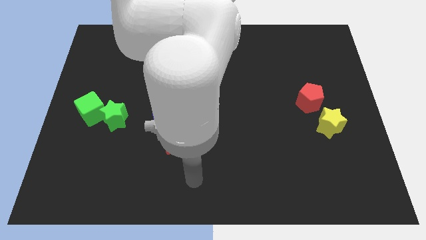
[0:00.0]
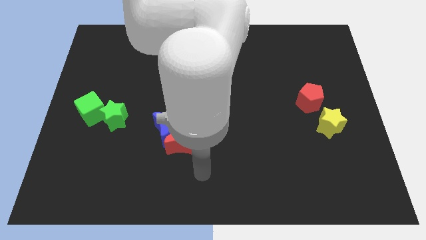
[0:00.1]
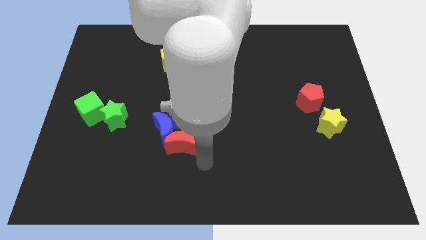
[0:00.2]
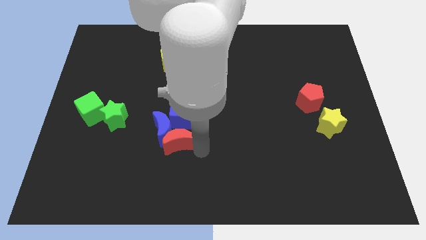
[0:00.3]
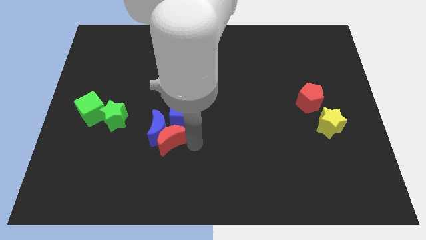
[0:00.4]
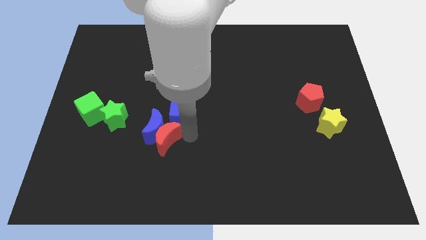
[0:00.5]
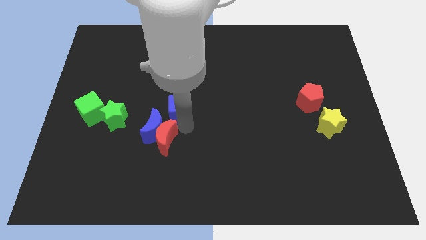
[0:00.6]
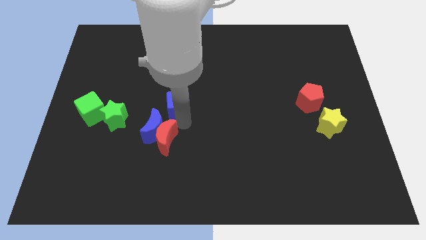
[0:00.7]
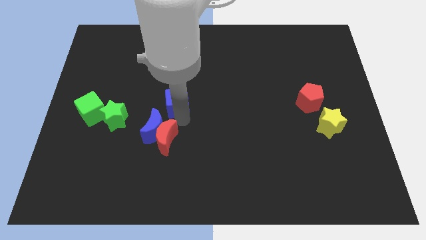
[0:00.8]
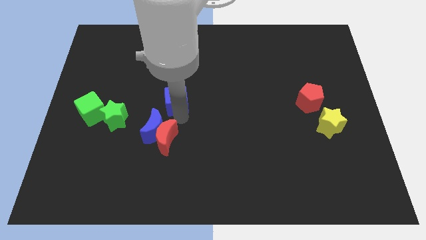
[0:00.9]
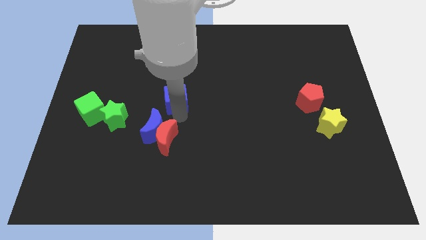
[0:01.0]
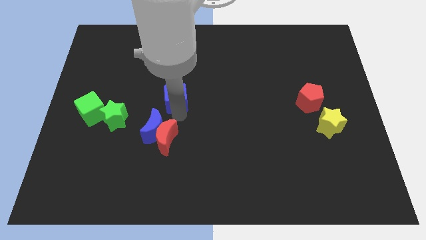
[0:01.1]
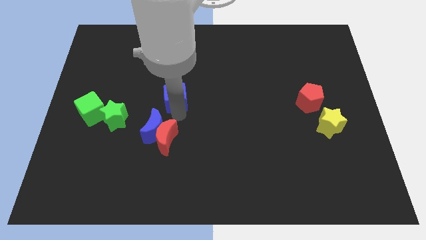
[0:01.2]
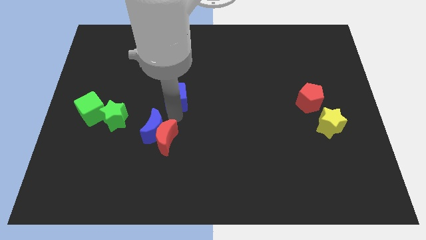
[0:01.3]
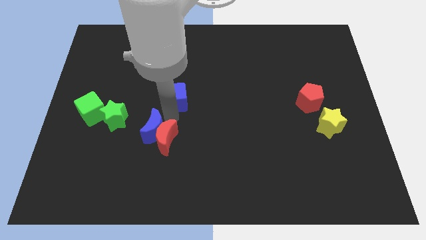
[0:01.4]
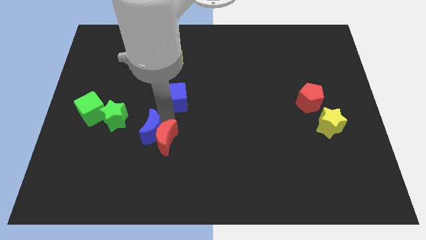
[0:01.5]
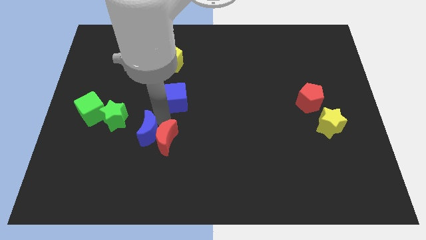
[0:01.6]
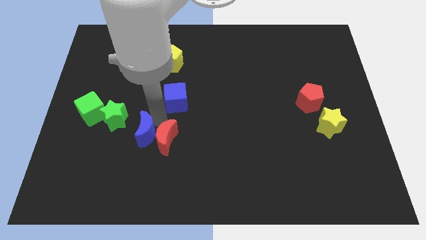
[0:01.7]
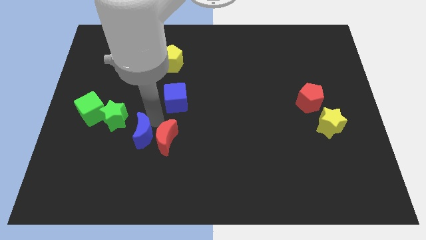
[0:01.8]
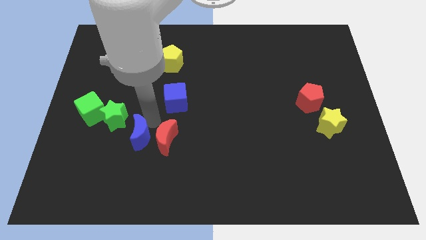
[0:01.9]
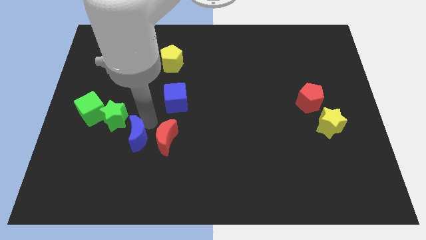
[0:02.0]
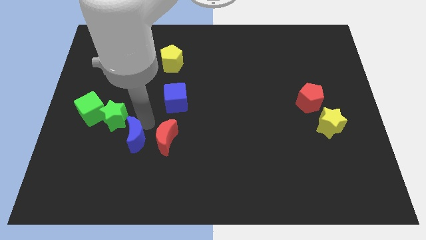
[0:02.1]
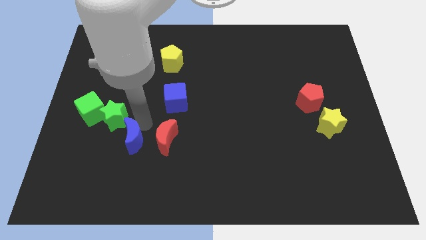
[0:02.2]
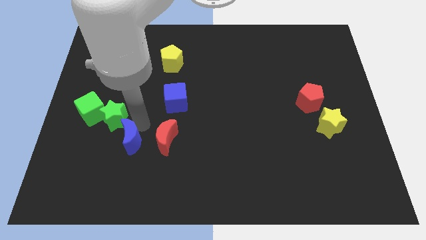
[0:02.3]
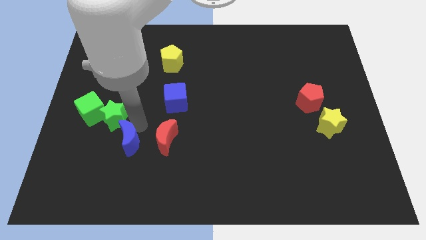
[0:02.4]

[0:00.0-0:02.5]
separate the blue moon from the red moon and blue cube

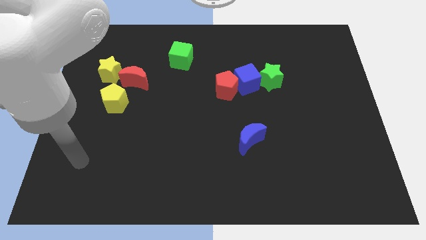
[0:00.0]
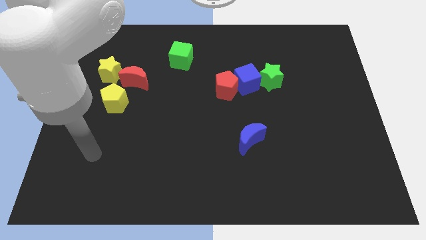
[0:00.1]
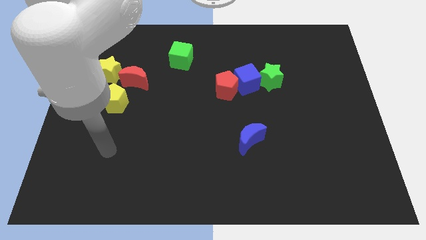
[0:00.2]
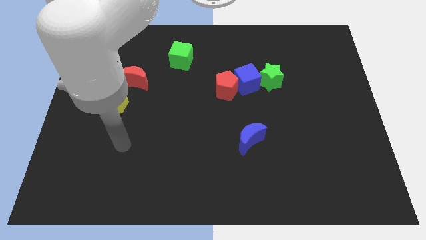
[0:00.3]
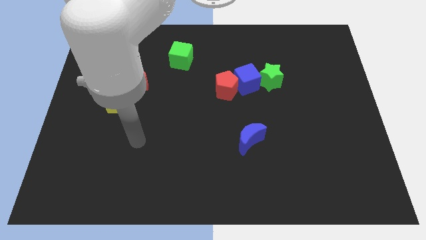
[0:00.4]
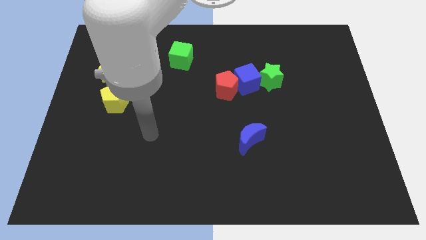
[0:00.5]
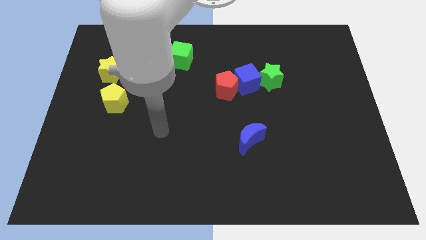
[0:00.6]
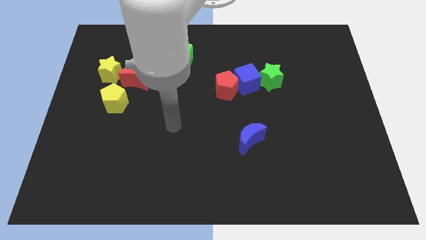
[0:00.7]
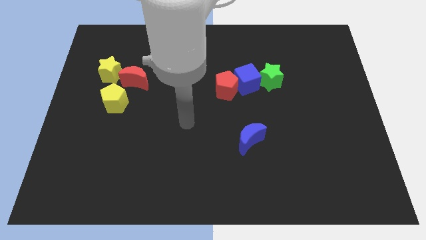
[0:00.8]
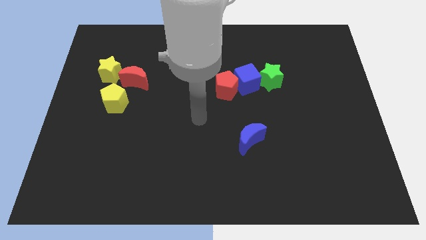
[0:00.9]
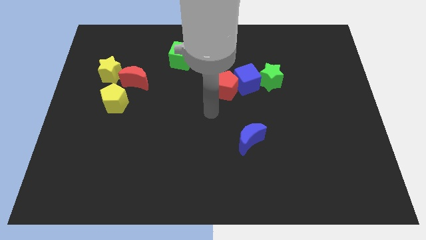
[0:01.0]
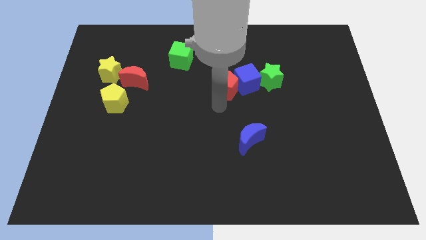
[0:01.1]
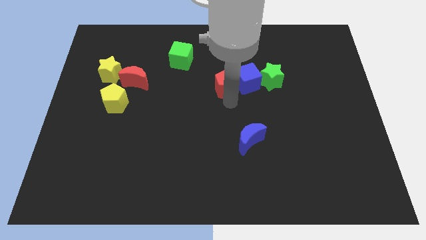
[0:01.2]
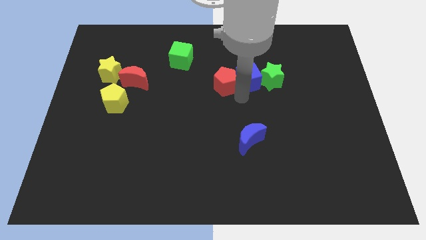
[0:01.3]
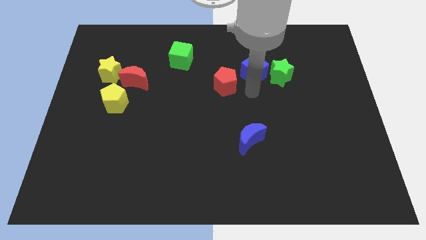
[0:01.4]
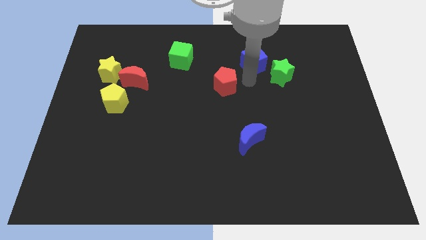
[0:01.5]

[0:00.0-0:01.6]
pull the red pentagon apart from the blue cube

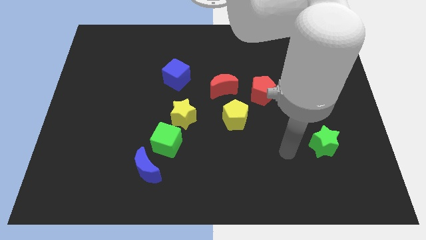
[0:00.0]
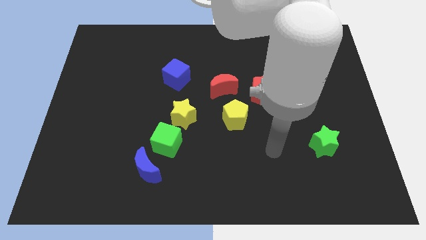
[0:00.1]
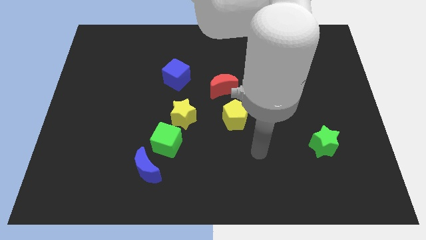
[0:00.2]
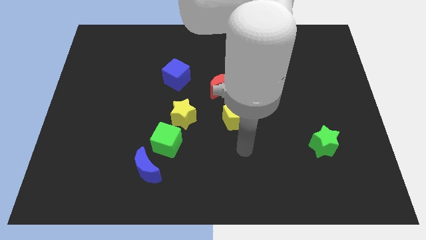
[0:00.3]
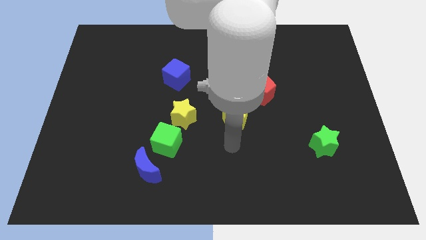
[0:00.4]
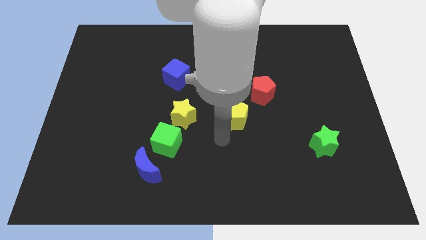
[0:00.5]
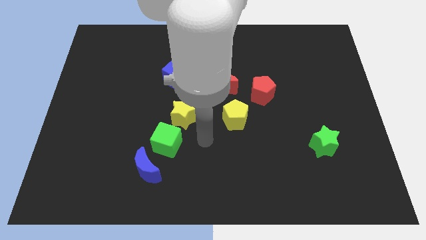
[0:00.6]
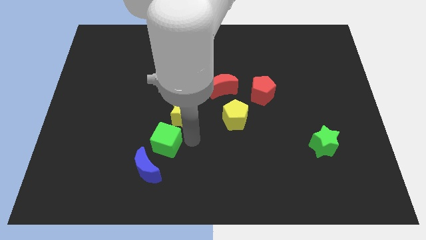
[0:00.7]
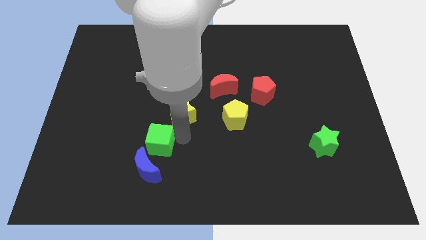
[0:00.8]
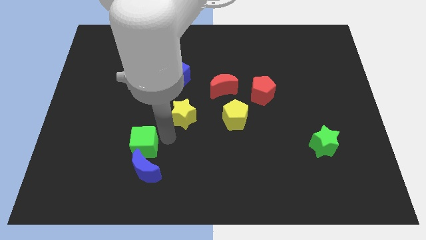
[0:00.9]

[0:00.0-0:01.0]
move the yellow star away from the green cube

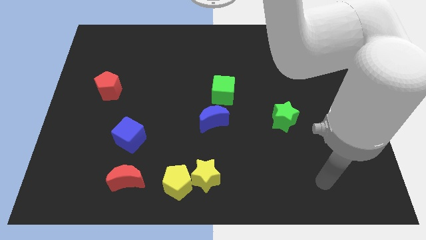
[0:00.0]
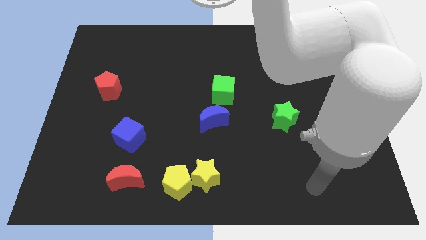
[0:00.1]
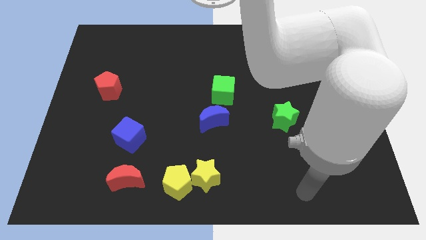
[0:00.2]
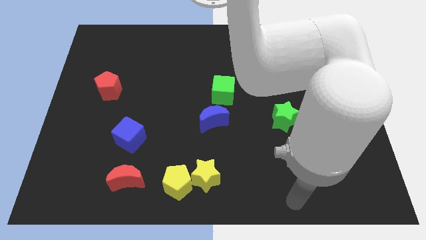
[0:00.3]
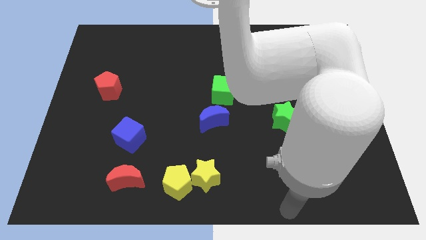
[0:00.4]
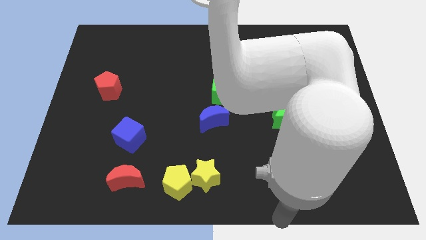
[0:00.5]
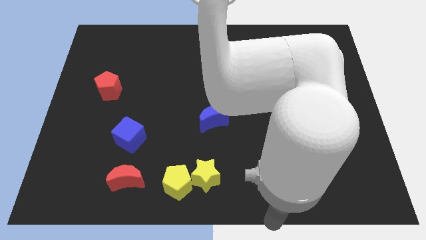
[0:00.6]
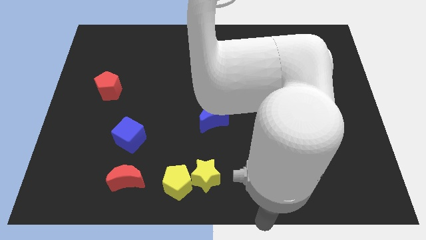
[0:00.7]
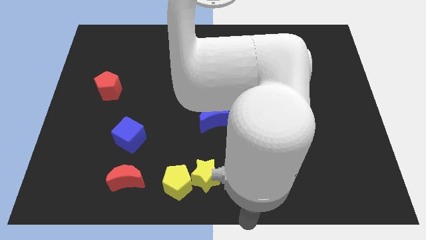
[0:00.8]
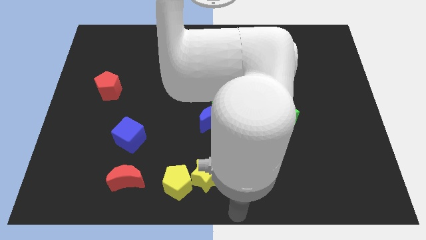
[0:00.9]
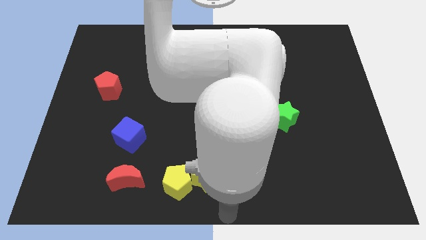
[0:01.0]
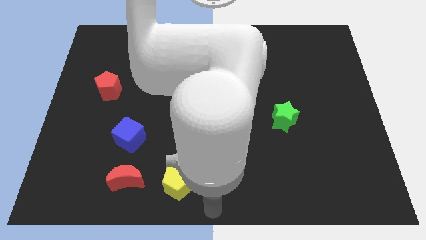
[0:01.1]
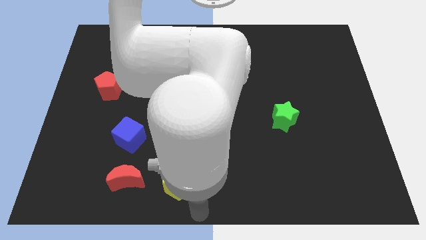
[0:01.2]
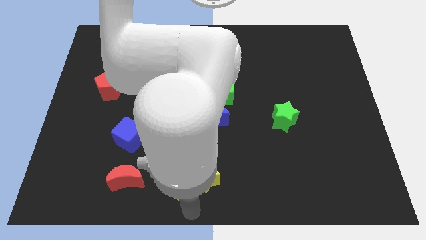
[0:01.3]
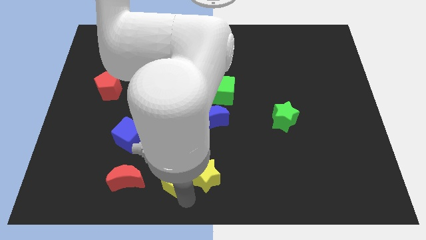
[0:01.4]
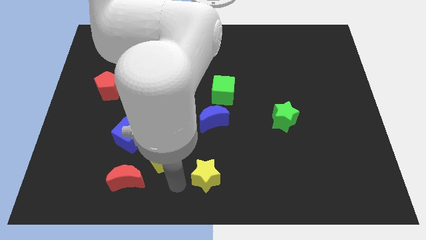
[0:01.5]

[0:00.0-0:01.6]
move the yellow star away from the yellow pentagon

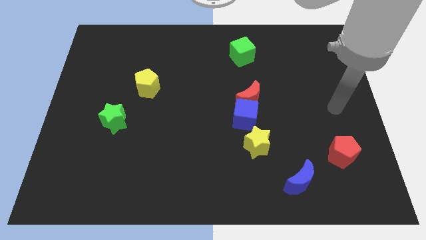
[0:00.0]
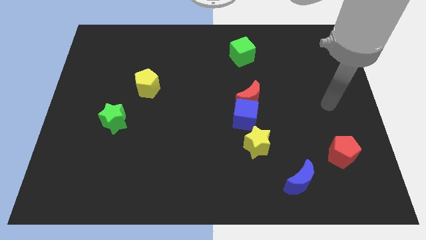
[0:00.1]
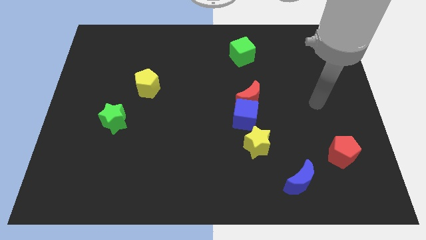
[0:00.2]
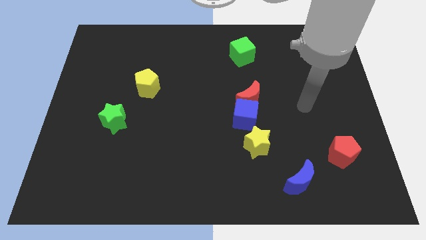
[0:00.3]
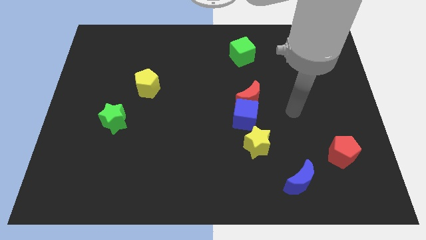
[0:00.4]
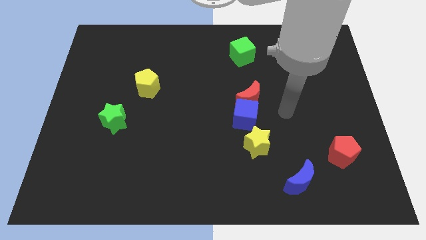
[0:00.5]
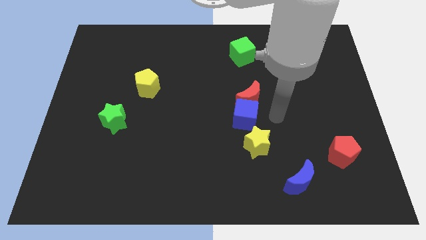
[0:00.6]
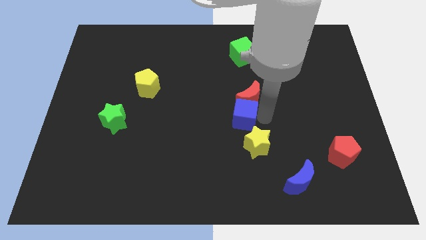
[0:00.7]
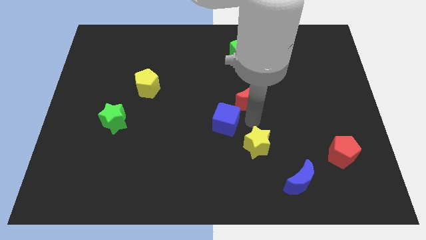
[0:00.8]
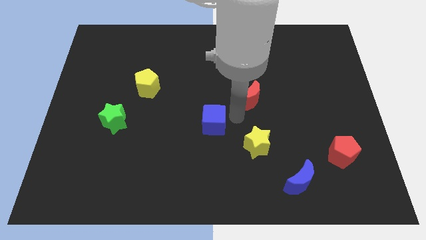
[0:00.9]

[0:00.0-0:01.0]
pull the red moon apart from the blue cube

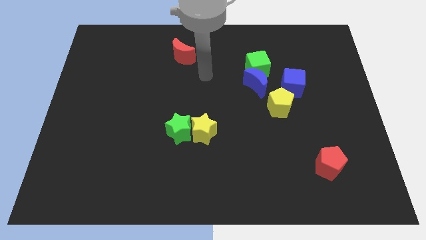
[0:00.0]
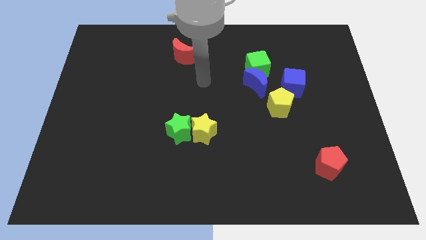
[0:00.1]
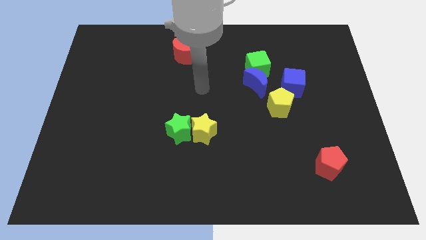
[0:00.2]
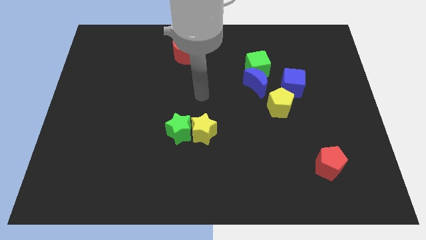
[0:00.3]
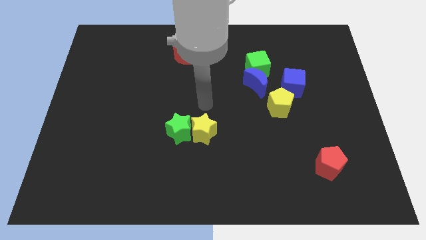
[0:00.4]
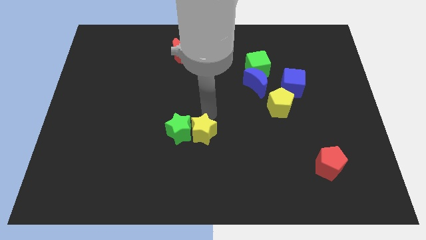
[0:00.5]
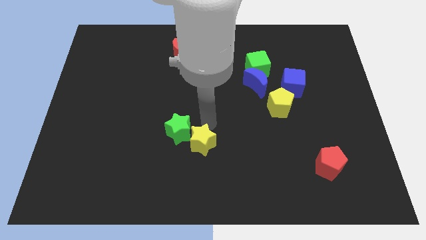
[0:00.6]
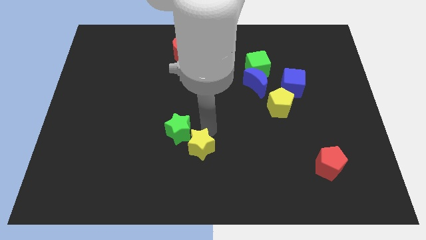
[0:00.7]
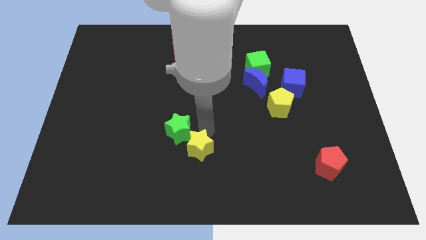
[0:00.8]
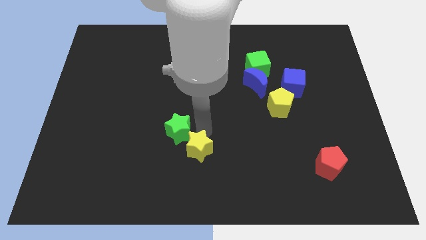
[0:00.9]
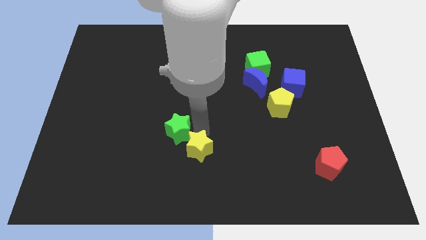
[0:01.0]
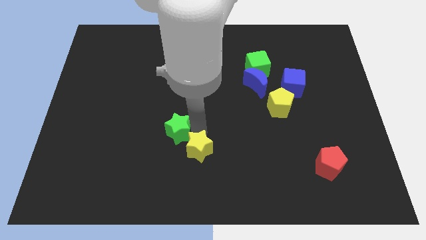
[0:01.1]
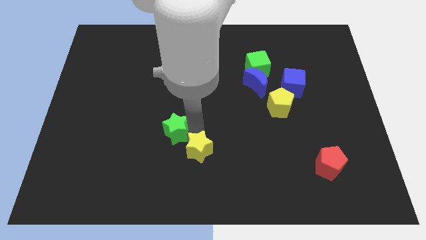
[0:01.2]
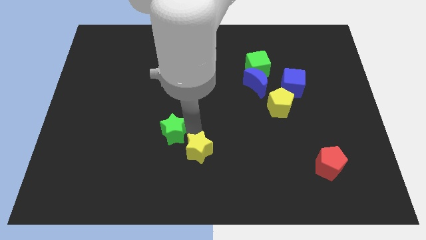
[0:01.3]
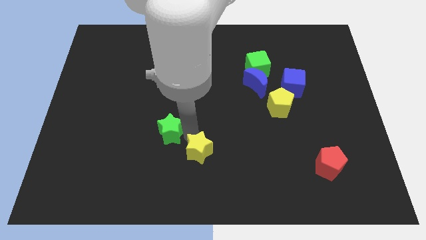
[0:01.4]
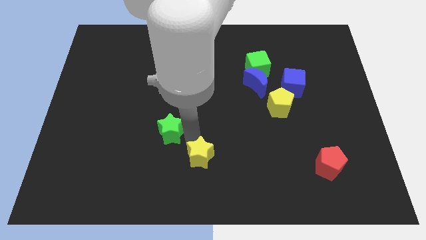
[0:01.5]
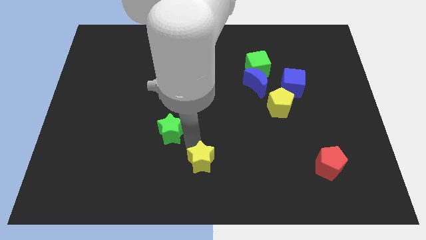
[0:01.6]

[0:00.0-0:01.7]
pull the green star apart from the yellow star
